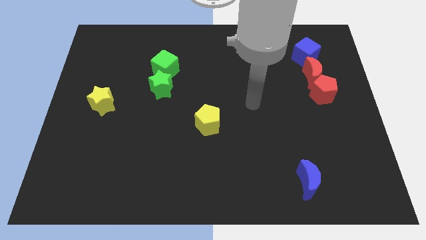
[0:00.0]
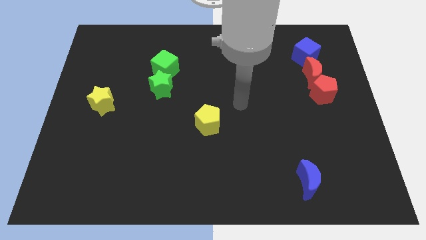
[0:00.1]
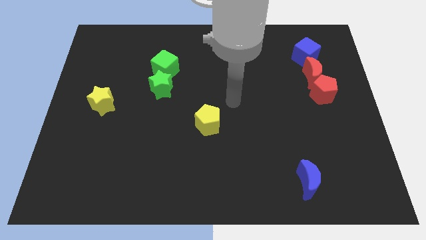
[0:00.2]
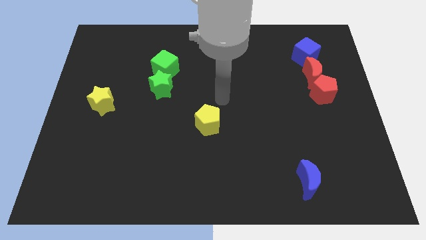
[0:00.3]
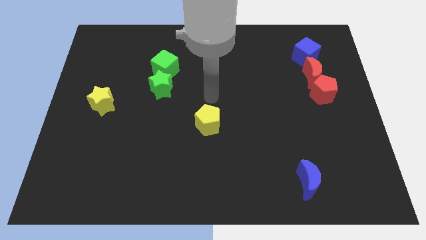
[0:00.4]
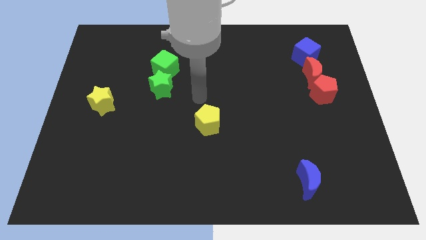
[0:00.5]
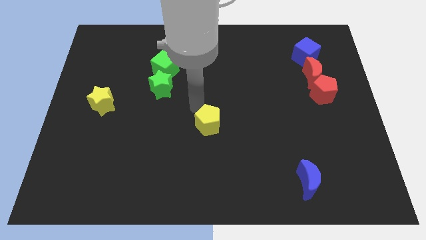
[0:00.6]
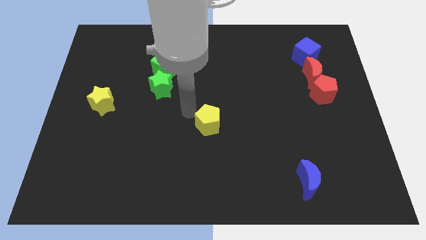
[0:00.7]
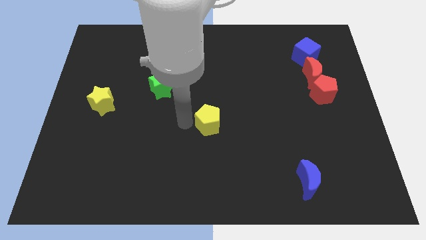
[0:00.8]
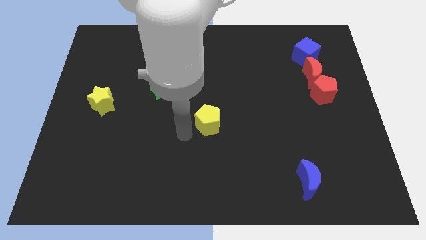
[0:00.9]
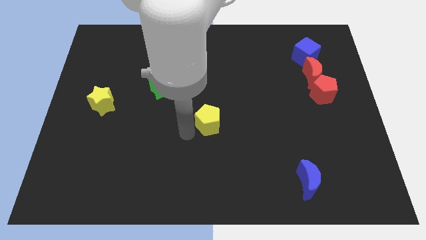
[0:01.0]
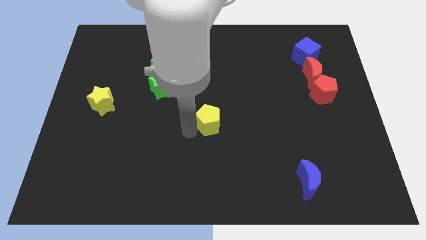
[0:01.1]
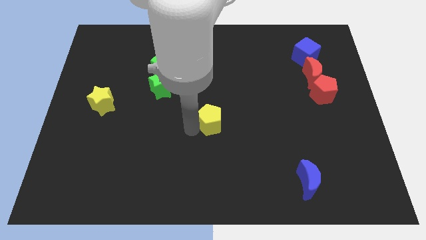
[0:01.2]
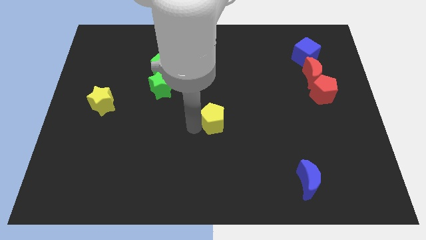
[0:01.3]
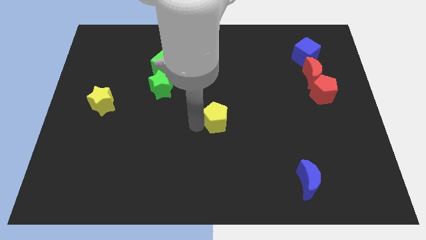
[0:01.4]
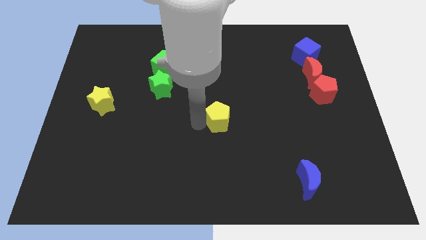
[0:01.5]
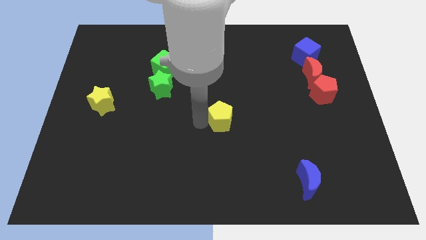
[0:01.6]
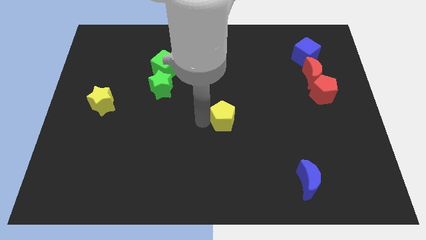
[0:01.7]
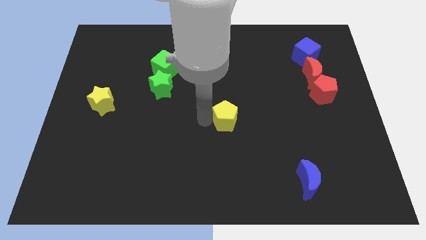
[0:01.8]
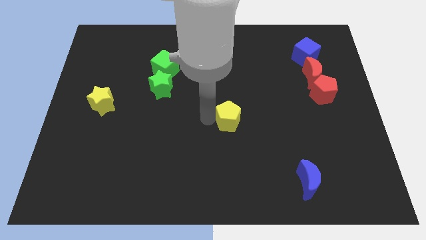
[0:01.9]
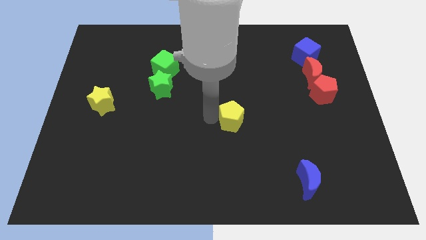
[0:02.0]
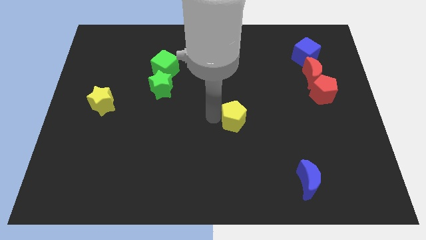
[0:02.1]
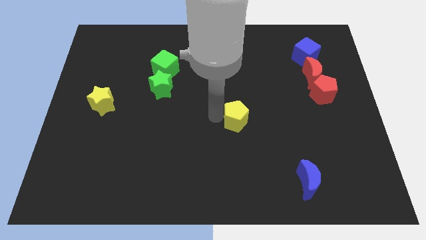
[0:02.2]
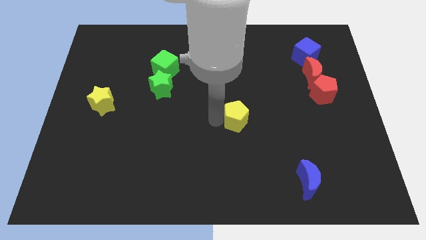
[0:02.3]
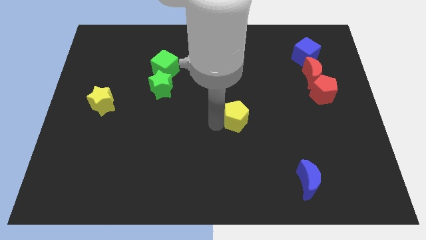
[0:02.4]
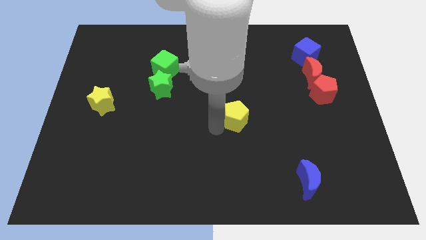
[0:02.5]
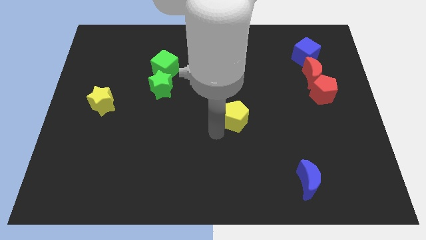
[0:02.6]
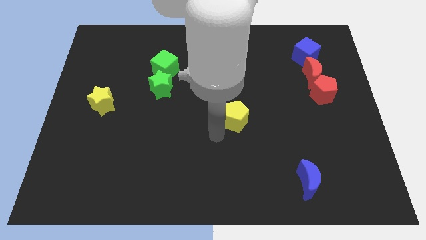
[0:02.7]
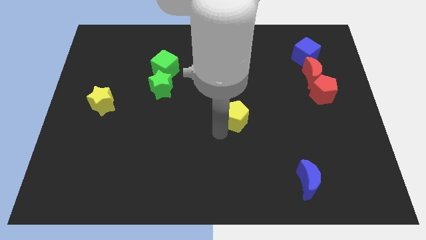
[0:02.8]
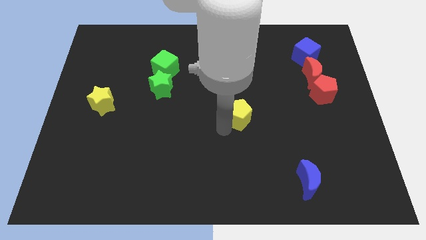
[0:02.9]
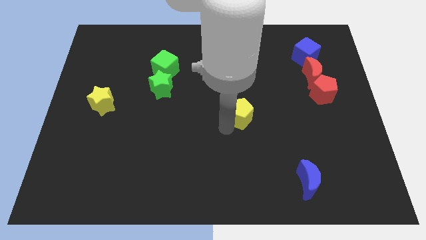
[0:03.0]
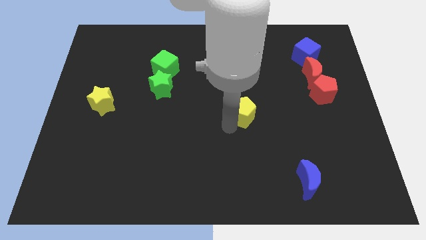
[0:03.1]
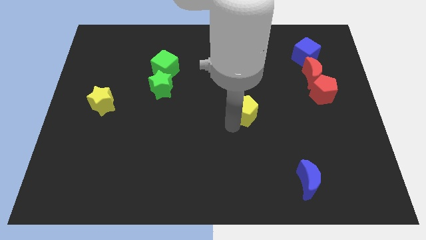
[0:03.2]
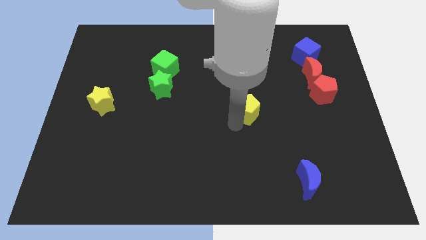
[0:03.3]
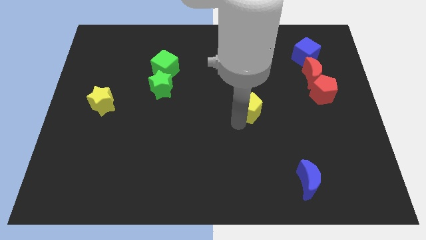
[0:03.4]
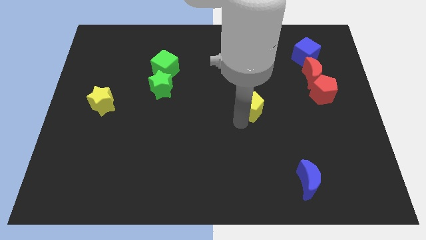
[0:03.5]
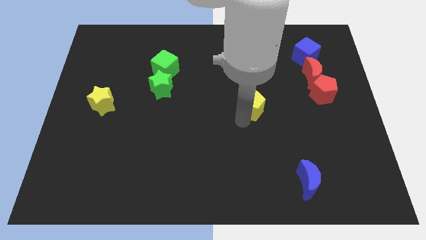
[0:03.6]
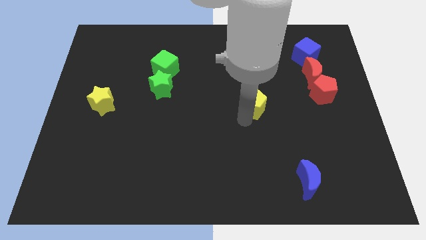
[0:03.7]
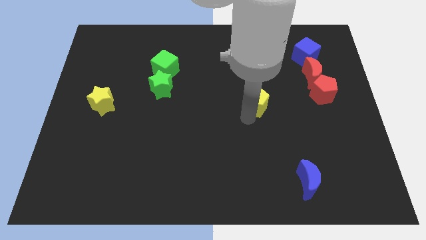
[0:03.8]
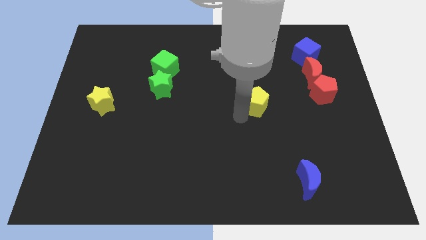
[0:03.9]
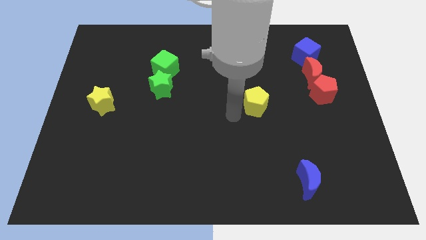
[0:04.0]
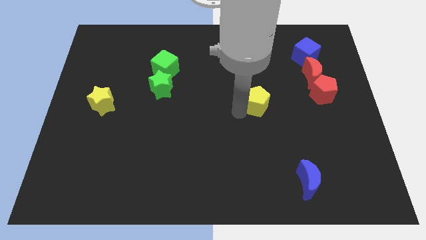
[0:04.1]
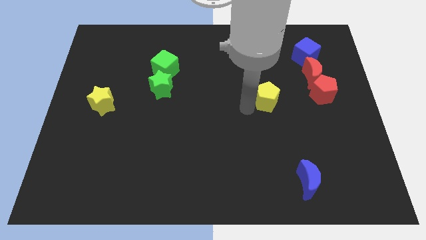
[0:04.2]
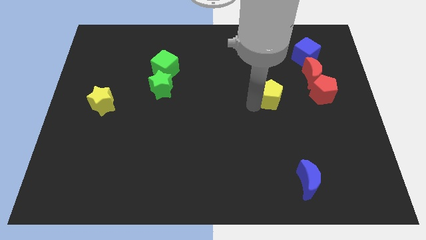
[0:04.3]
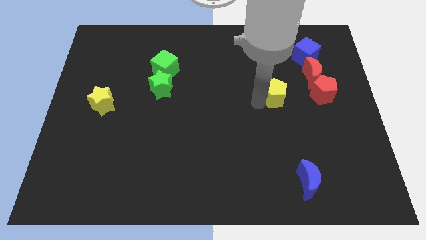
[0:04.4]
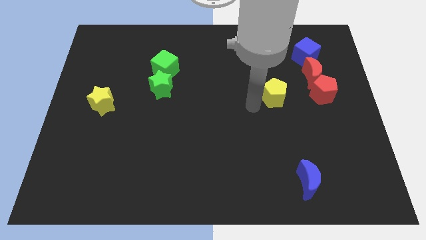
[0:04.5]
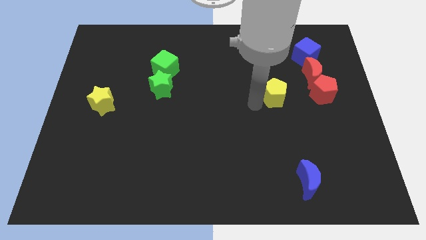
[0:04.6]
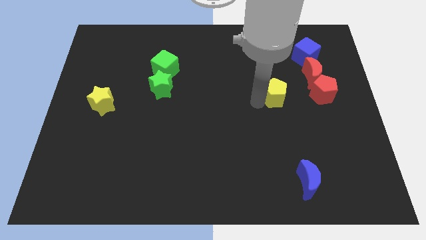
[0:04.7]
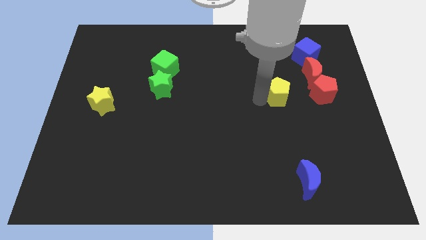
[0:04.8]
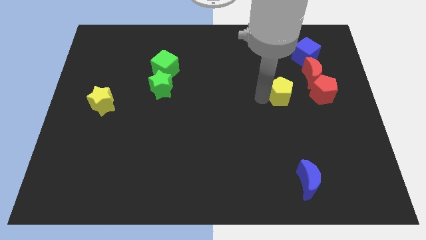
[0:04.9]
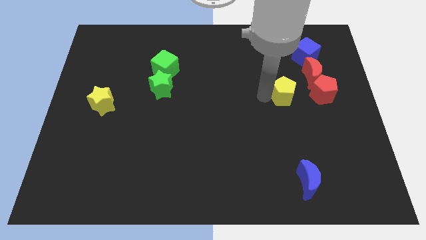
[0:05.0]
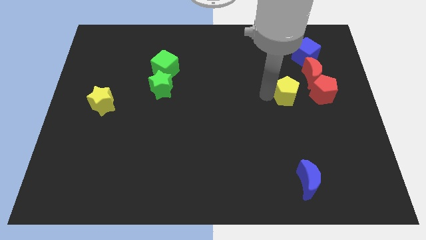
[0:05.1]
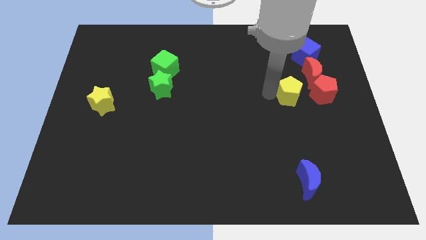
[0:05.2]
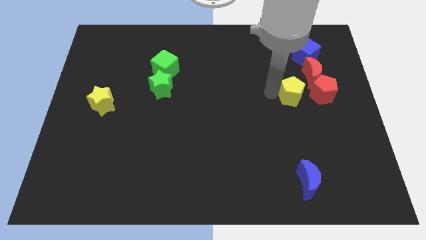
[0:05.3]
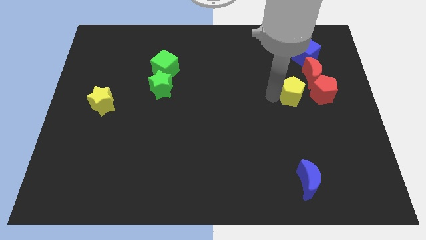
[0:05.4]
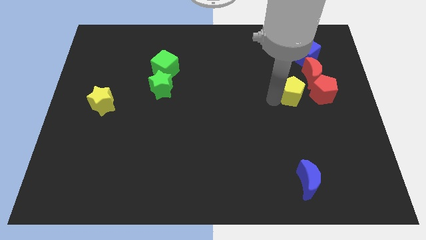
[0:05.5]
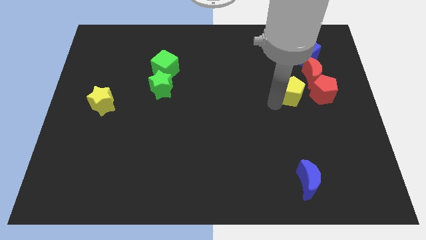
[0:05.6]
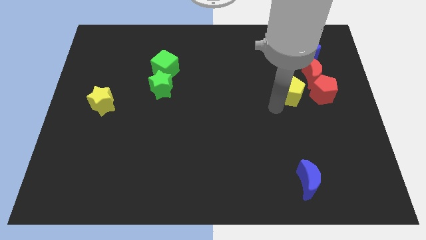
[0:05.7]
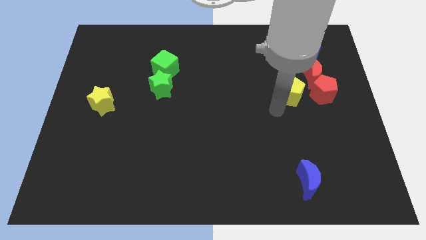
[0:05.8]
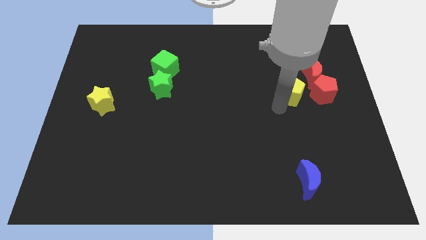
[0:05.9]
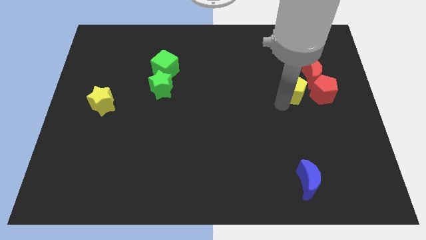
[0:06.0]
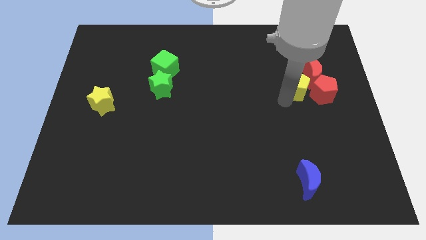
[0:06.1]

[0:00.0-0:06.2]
move the yellow pentagon next to the red moon
